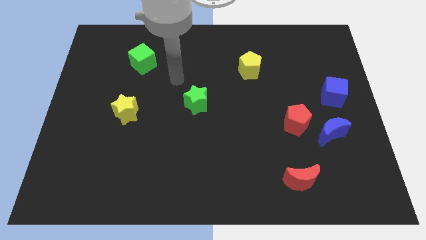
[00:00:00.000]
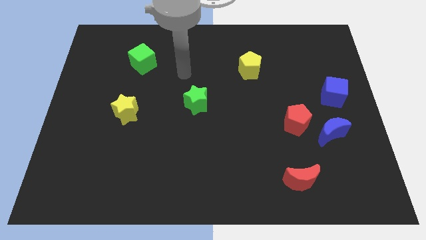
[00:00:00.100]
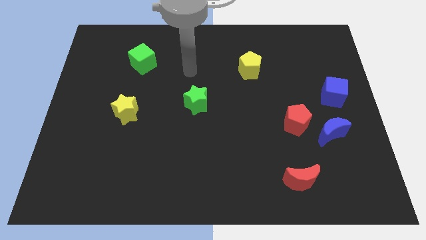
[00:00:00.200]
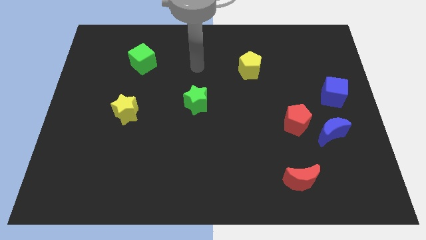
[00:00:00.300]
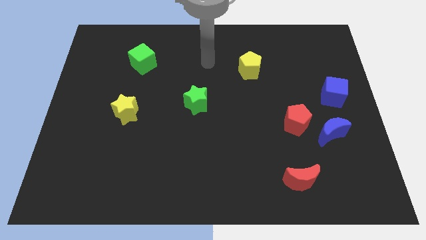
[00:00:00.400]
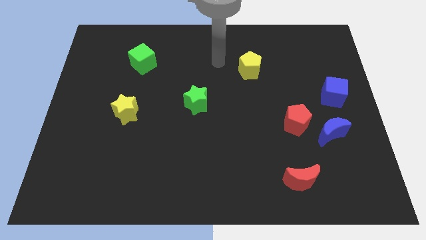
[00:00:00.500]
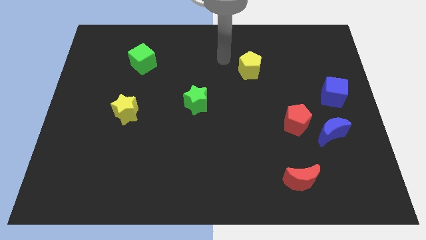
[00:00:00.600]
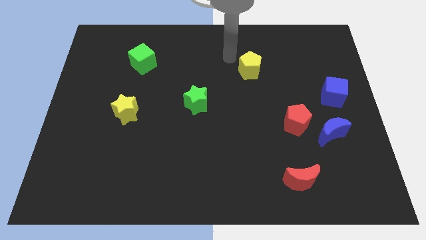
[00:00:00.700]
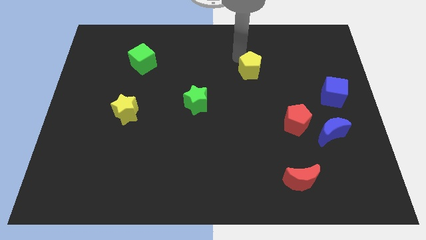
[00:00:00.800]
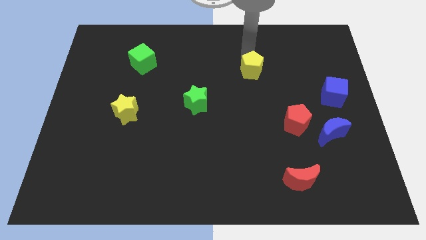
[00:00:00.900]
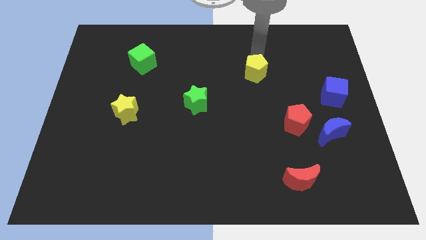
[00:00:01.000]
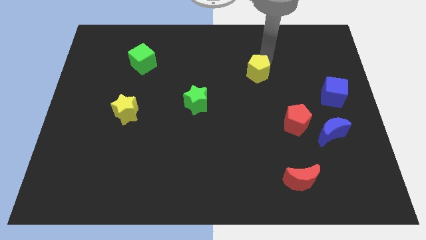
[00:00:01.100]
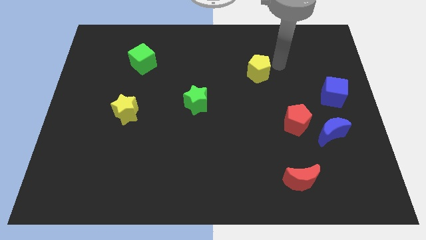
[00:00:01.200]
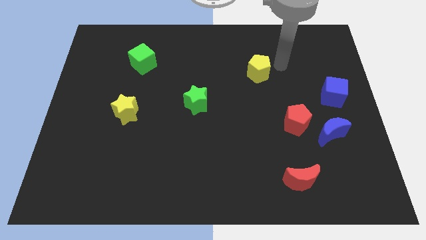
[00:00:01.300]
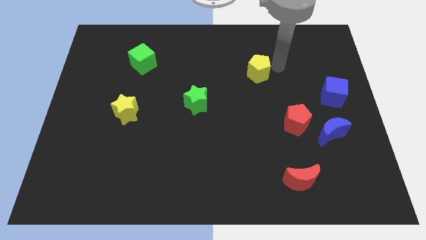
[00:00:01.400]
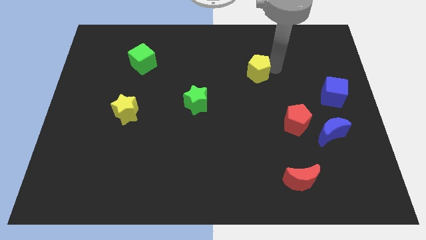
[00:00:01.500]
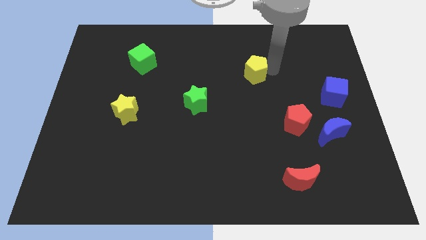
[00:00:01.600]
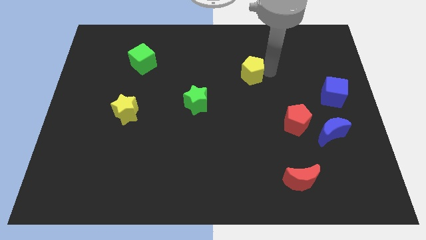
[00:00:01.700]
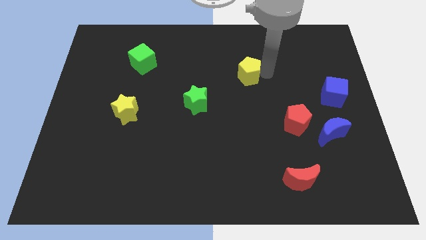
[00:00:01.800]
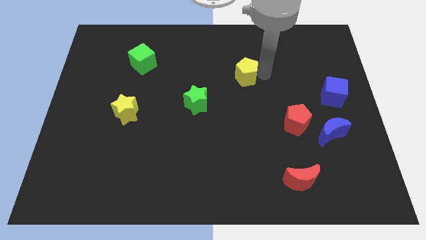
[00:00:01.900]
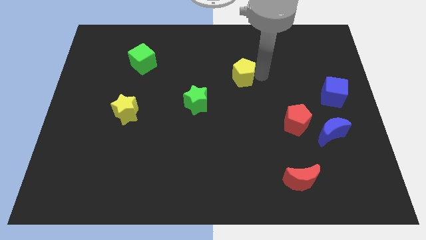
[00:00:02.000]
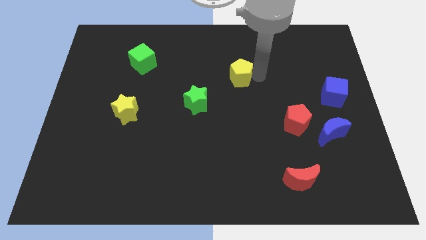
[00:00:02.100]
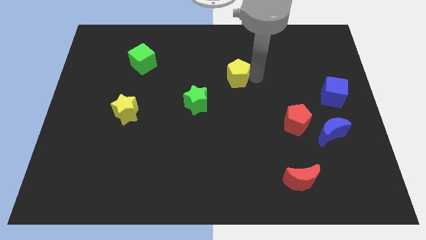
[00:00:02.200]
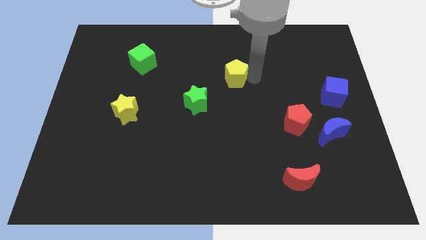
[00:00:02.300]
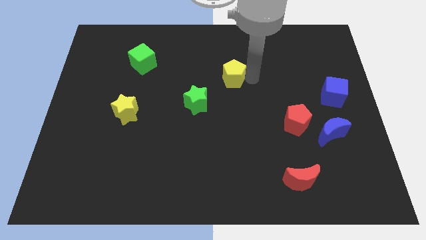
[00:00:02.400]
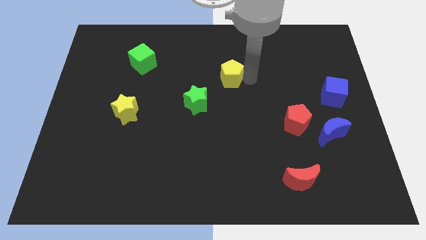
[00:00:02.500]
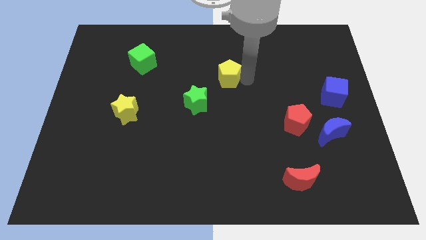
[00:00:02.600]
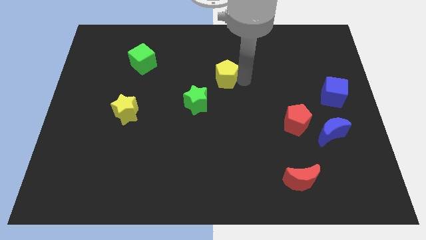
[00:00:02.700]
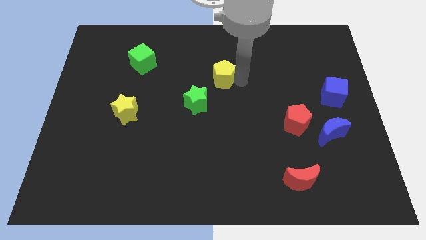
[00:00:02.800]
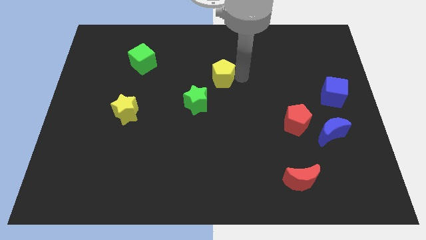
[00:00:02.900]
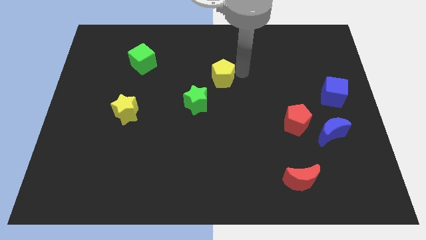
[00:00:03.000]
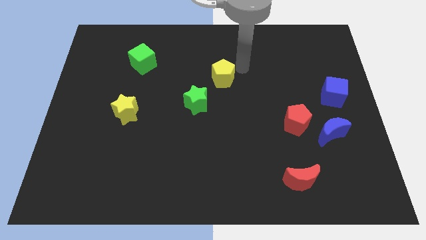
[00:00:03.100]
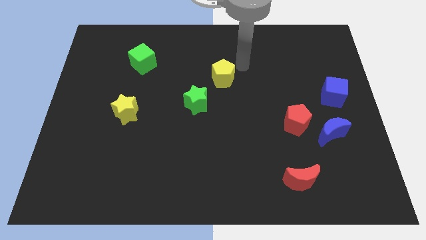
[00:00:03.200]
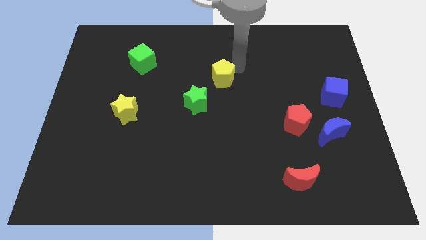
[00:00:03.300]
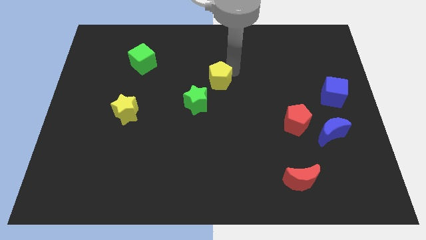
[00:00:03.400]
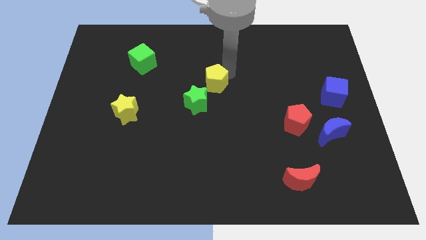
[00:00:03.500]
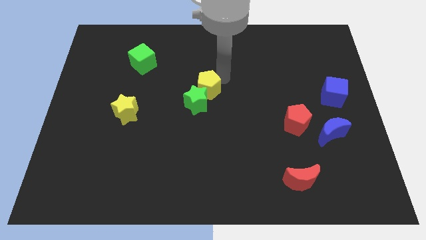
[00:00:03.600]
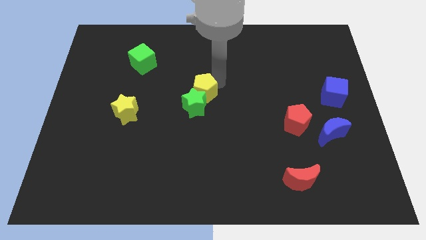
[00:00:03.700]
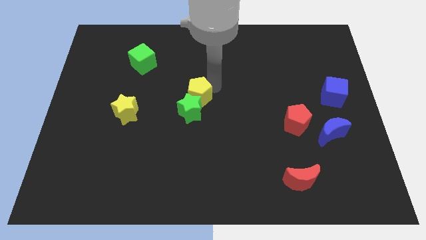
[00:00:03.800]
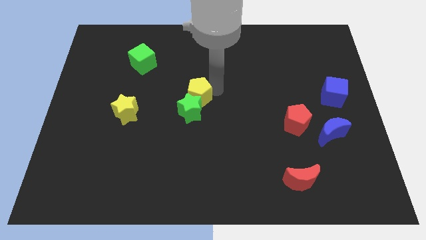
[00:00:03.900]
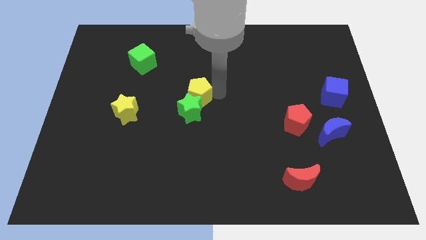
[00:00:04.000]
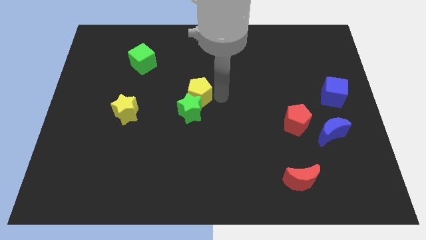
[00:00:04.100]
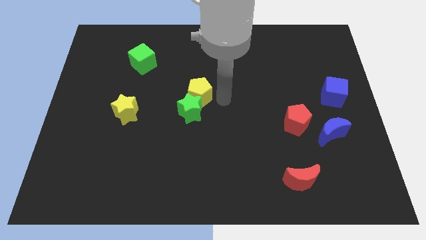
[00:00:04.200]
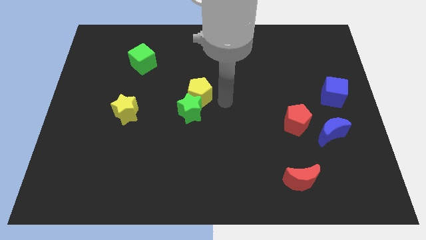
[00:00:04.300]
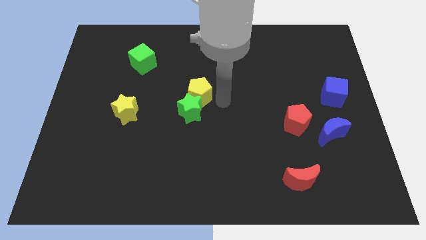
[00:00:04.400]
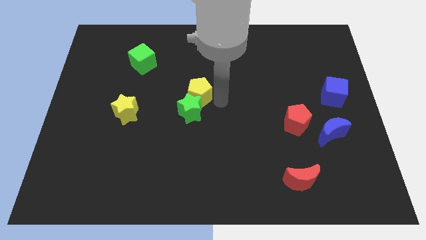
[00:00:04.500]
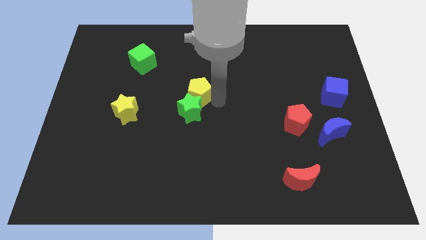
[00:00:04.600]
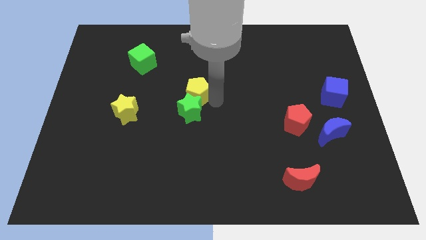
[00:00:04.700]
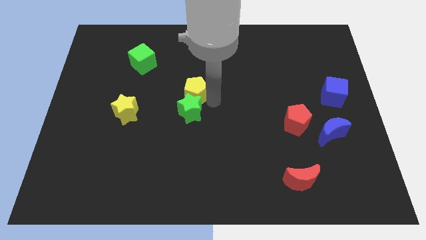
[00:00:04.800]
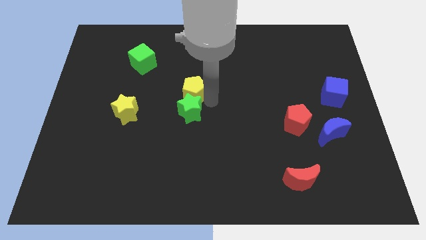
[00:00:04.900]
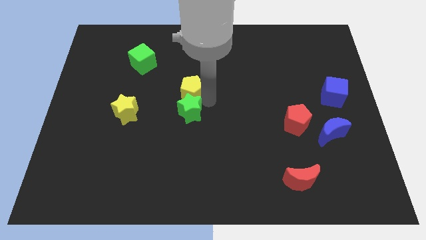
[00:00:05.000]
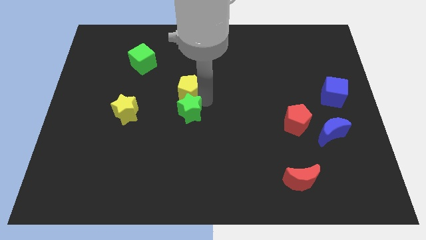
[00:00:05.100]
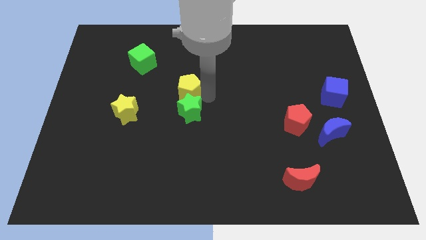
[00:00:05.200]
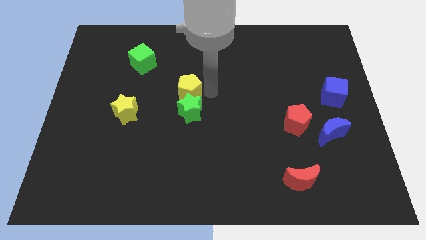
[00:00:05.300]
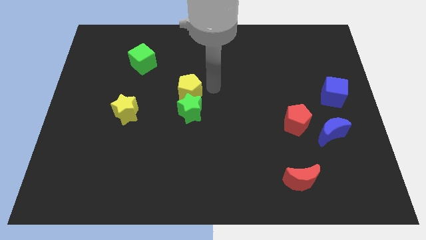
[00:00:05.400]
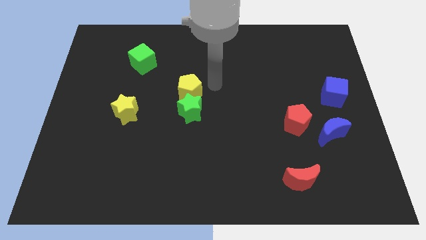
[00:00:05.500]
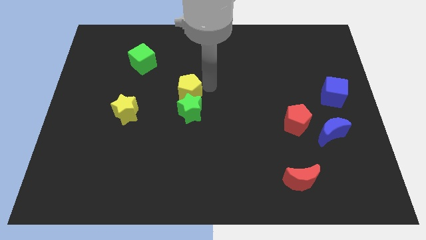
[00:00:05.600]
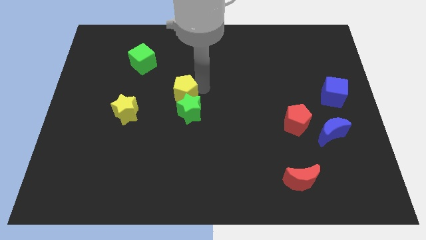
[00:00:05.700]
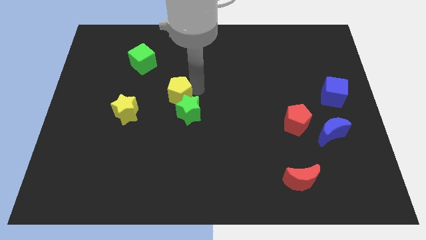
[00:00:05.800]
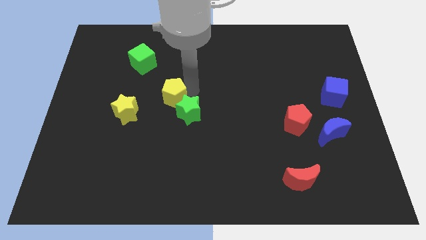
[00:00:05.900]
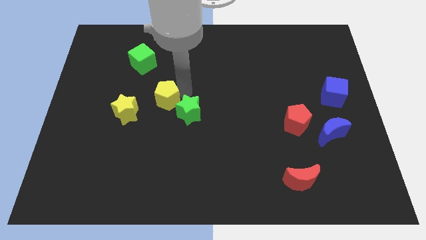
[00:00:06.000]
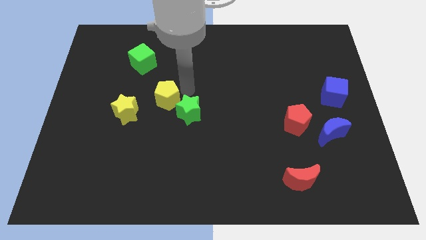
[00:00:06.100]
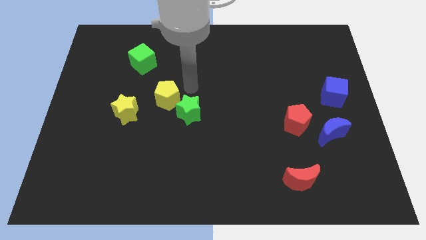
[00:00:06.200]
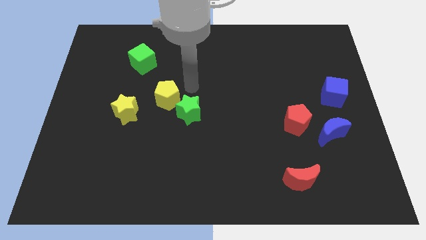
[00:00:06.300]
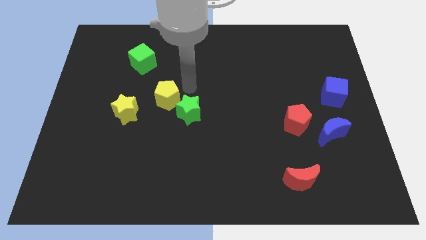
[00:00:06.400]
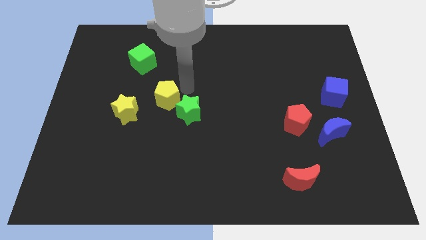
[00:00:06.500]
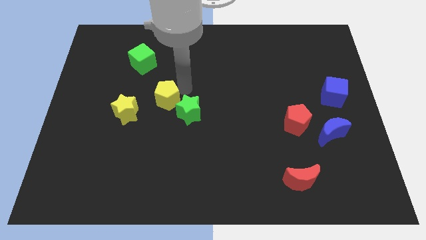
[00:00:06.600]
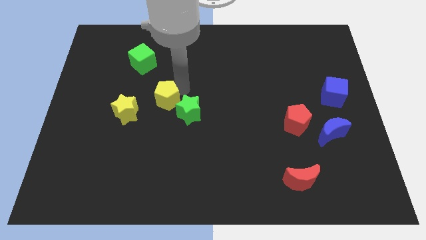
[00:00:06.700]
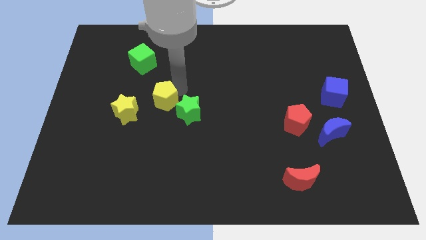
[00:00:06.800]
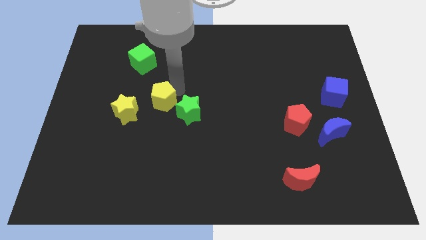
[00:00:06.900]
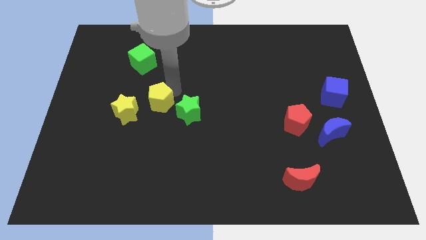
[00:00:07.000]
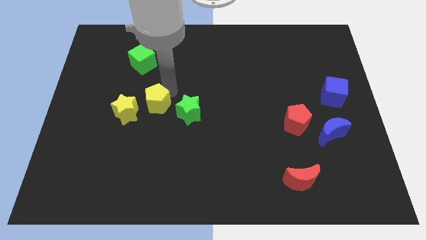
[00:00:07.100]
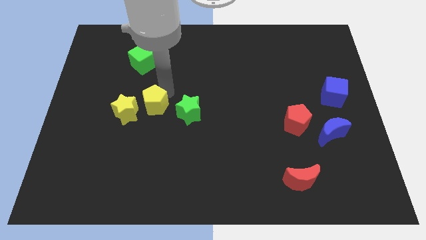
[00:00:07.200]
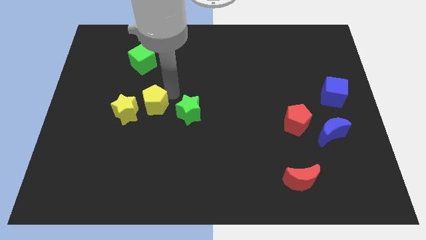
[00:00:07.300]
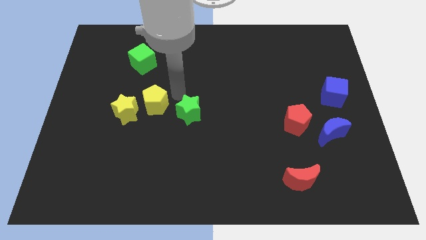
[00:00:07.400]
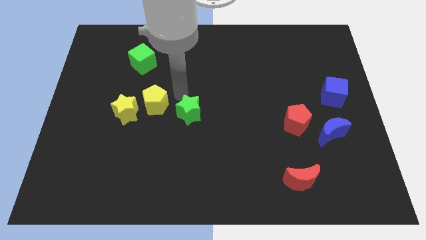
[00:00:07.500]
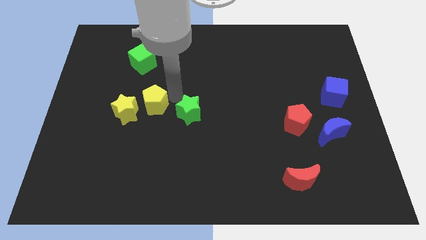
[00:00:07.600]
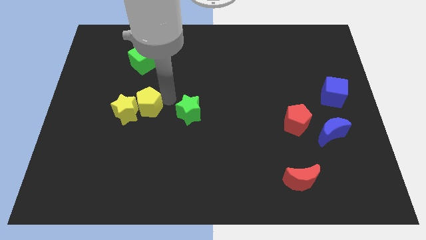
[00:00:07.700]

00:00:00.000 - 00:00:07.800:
push the yellow pentagon next to the yellow star
